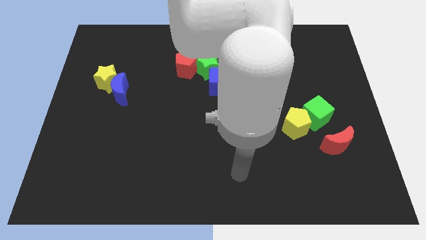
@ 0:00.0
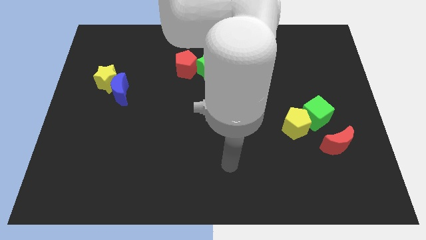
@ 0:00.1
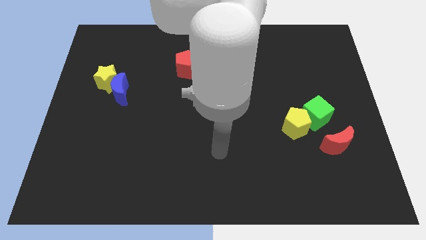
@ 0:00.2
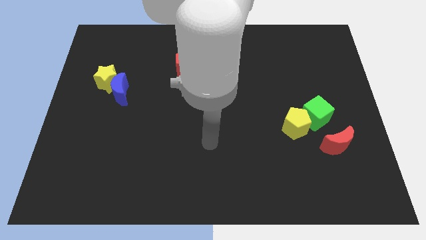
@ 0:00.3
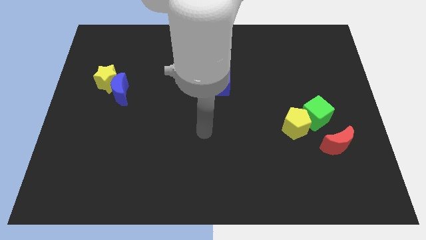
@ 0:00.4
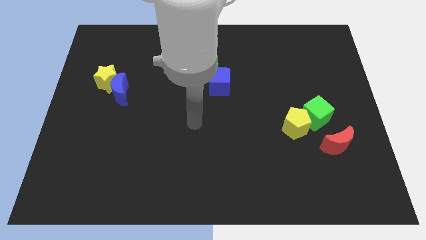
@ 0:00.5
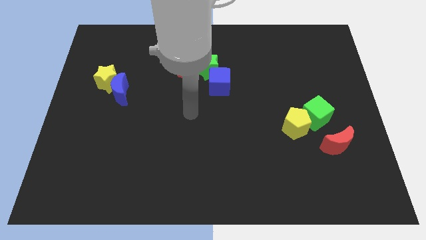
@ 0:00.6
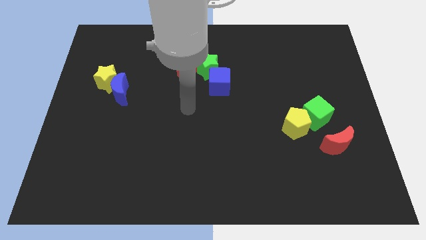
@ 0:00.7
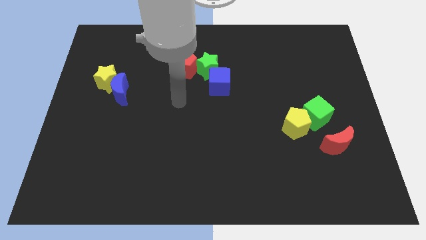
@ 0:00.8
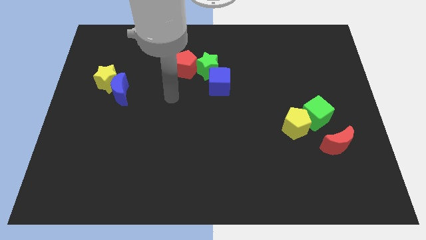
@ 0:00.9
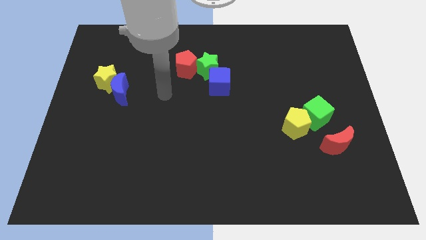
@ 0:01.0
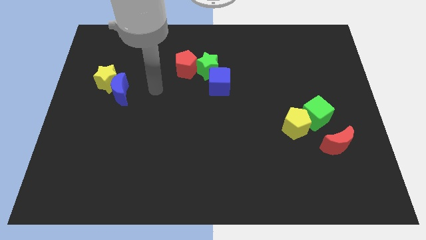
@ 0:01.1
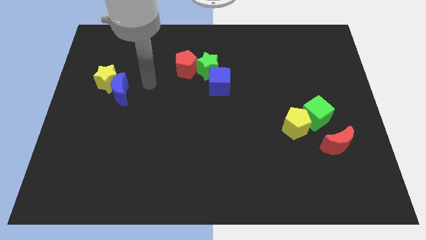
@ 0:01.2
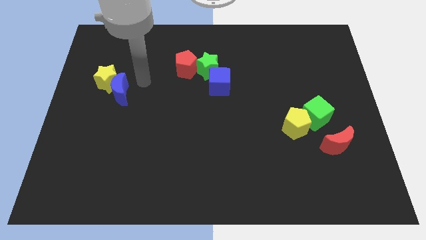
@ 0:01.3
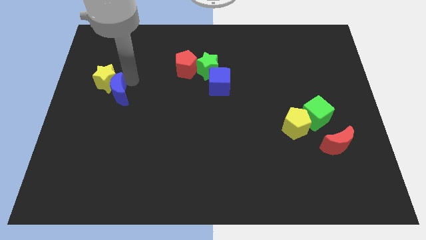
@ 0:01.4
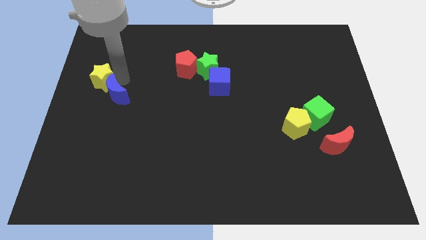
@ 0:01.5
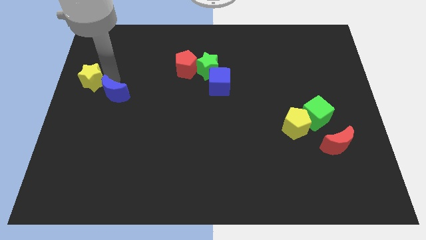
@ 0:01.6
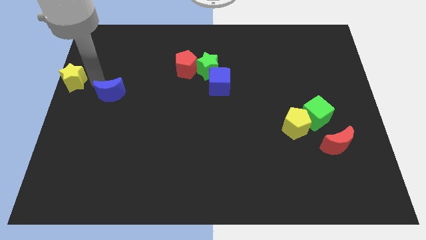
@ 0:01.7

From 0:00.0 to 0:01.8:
separate the blue moon from the yellow star

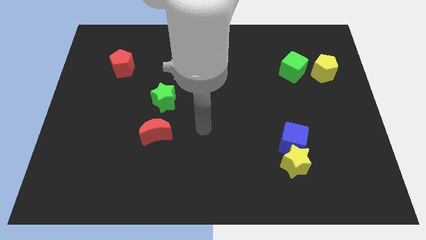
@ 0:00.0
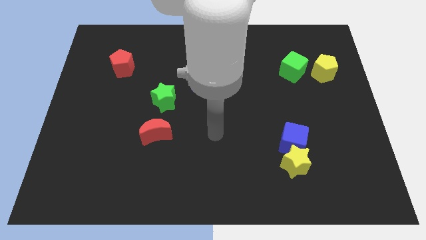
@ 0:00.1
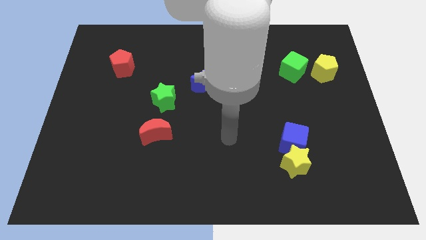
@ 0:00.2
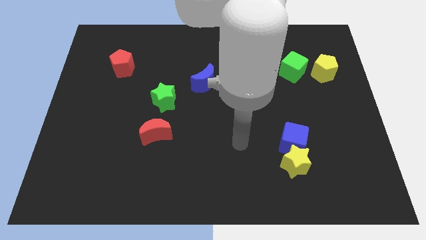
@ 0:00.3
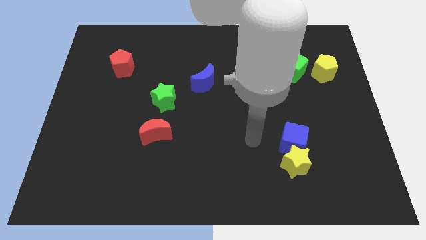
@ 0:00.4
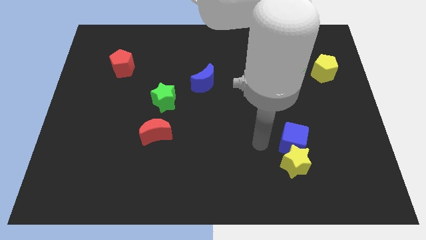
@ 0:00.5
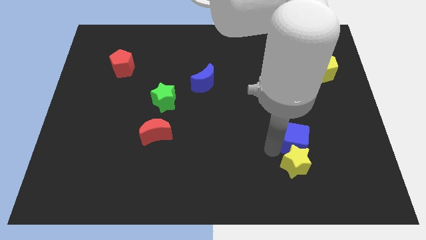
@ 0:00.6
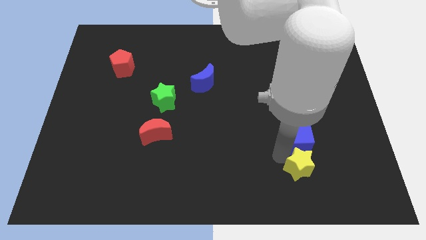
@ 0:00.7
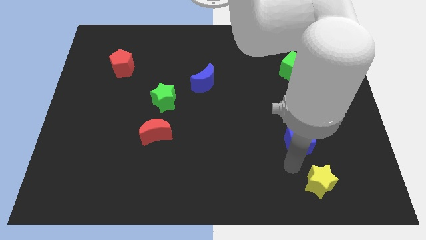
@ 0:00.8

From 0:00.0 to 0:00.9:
move the blue cube away from the yellow star

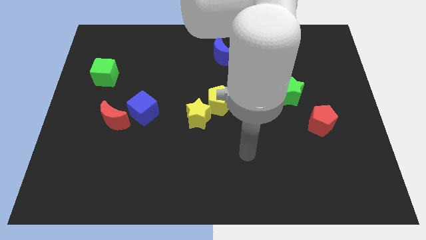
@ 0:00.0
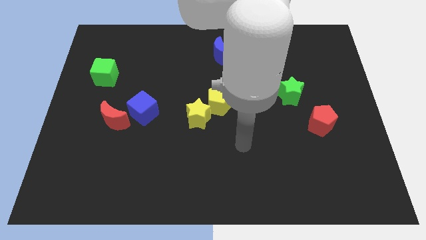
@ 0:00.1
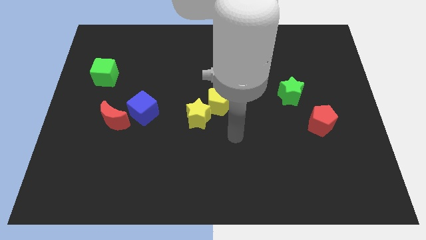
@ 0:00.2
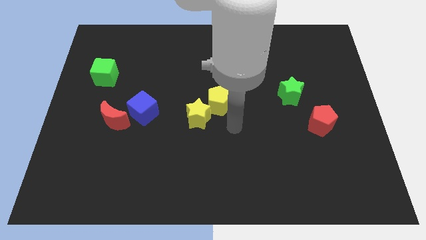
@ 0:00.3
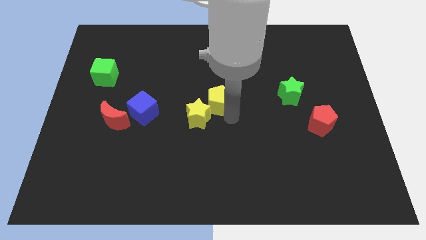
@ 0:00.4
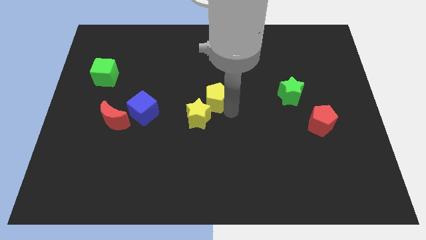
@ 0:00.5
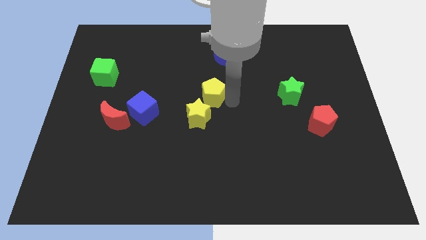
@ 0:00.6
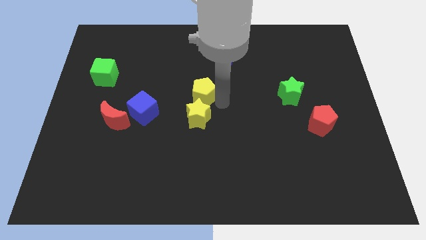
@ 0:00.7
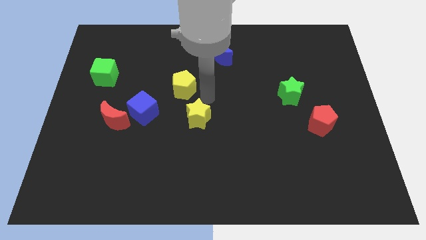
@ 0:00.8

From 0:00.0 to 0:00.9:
separate the yellow star from the yellow pentagon

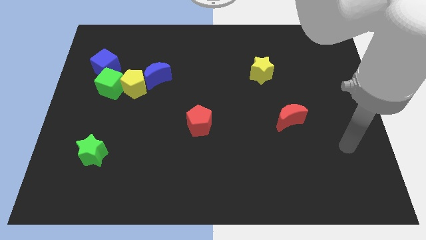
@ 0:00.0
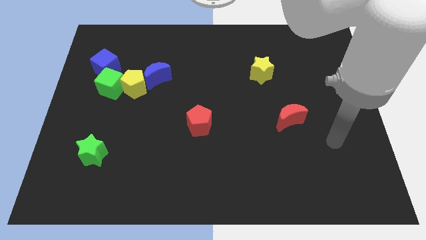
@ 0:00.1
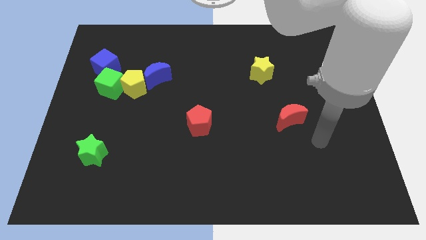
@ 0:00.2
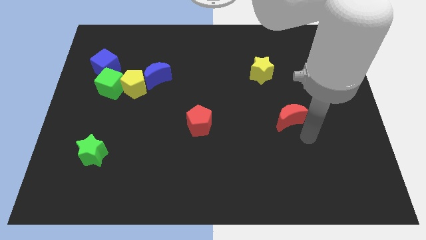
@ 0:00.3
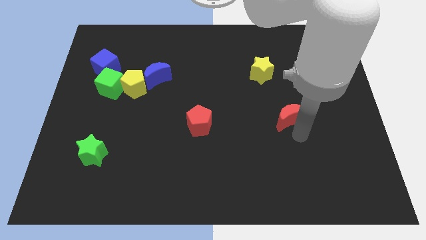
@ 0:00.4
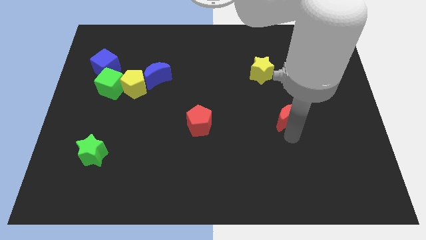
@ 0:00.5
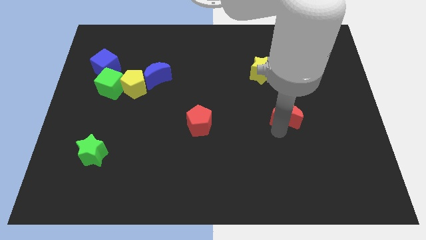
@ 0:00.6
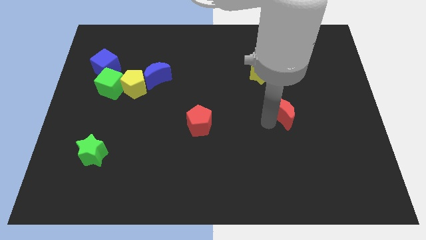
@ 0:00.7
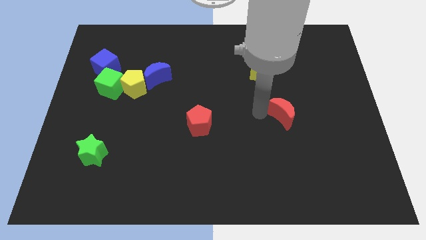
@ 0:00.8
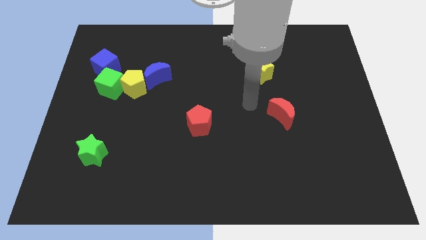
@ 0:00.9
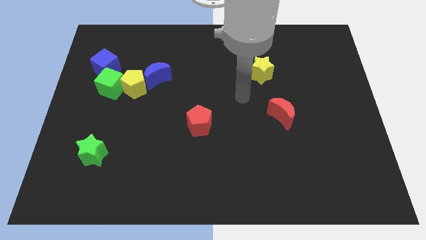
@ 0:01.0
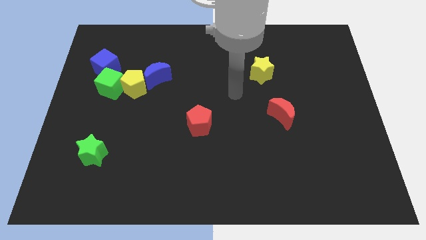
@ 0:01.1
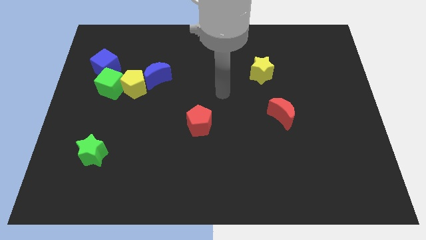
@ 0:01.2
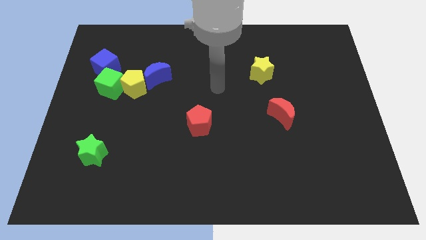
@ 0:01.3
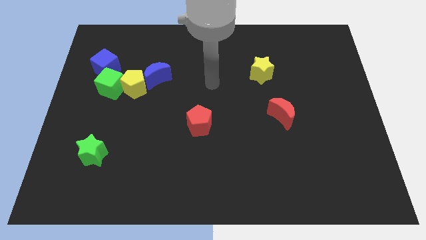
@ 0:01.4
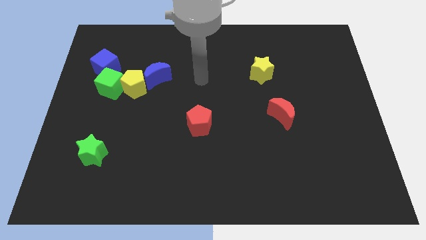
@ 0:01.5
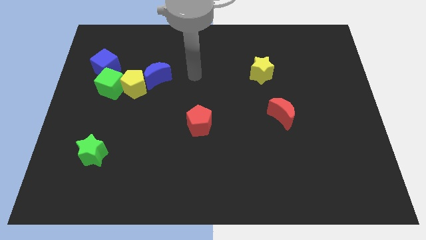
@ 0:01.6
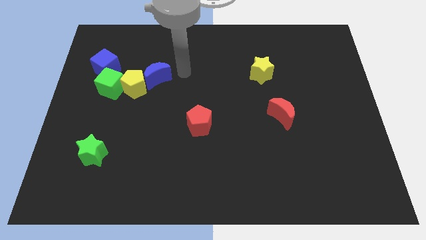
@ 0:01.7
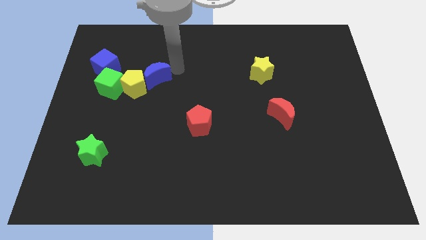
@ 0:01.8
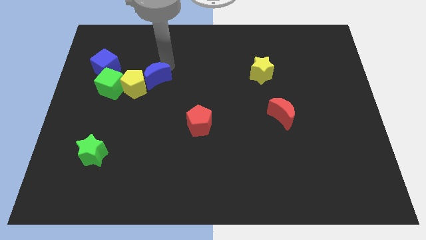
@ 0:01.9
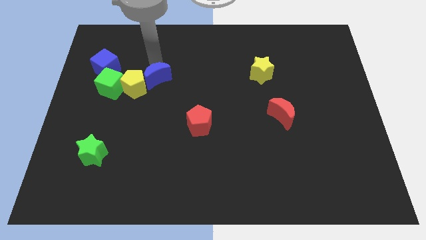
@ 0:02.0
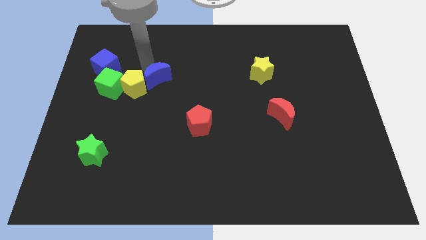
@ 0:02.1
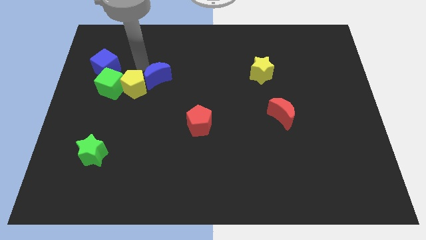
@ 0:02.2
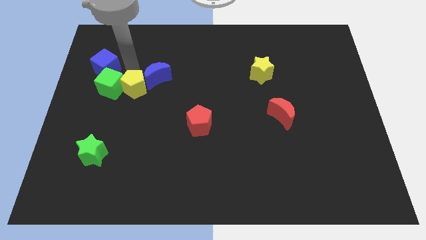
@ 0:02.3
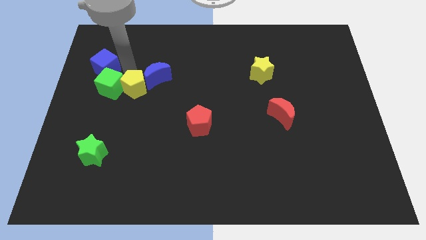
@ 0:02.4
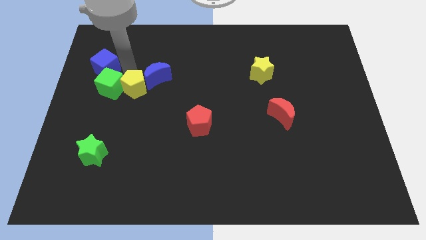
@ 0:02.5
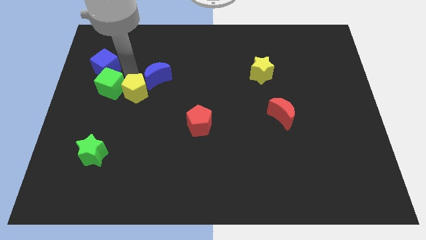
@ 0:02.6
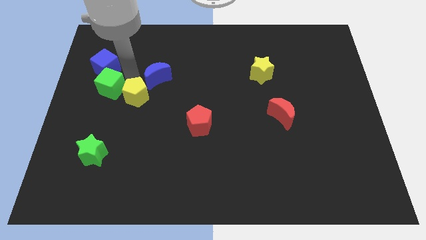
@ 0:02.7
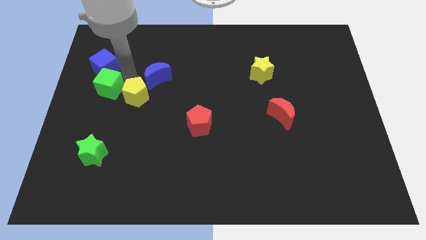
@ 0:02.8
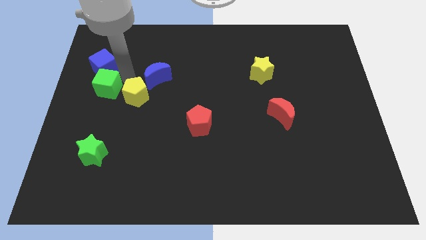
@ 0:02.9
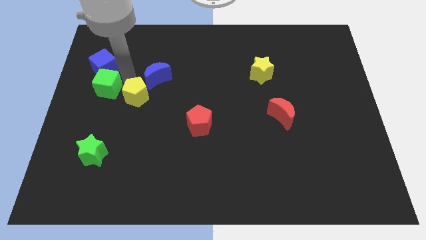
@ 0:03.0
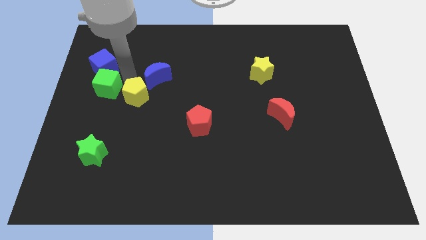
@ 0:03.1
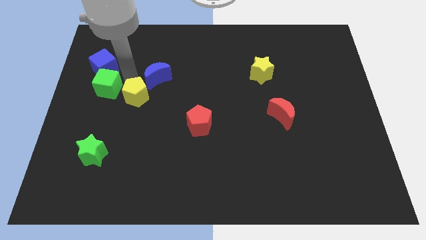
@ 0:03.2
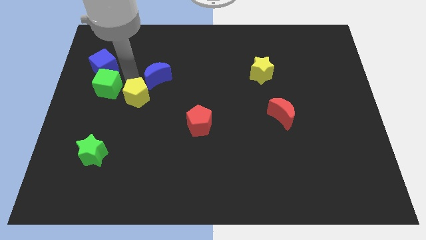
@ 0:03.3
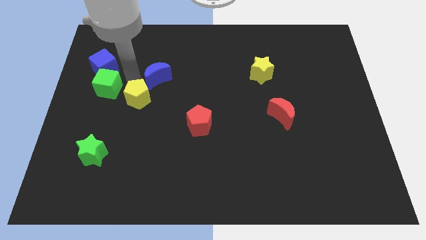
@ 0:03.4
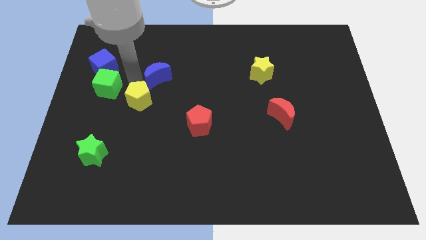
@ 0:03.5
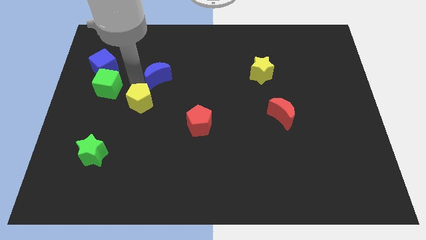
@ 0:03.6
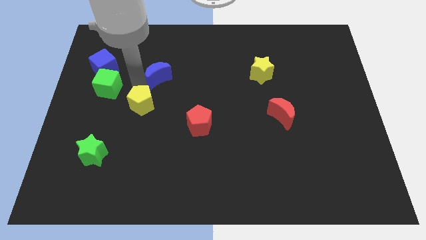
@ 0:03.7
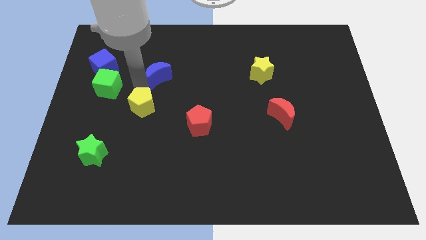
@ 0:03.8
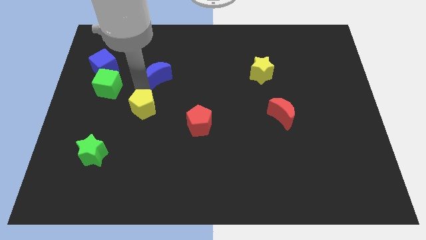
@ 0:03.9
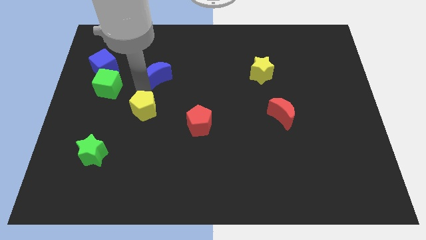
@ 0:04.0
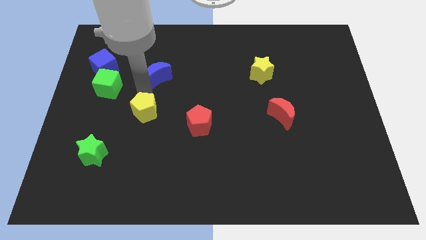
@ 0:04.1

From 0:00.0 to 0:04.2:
move the yellow pentagon away from the green cube and blue moon

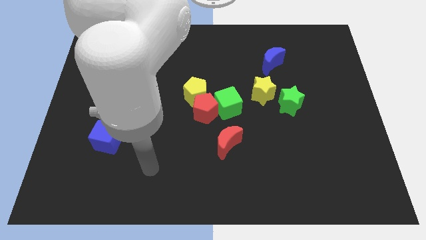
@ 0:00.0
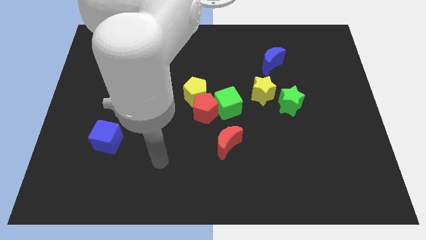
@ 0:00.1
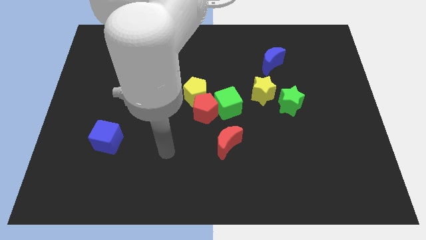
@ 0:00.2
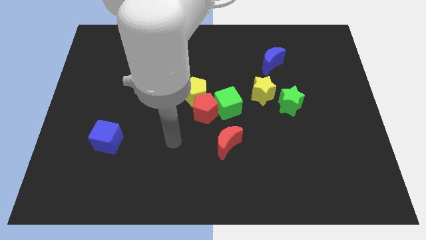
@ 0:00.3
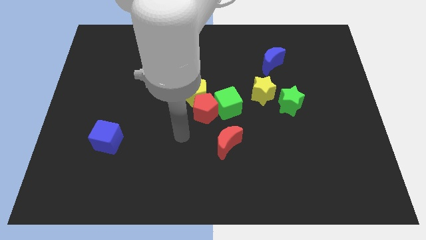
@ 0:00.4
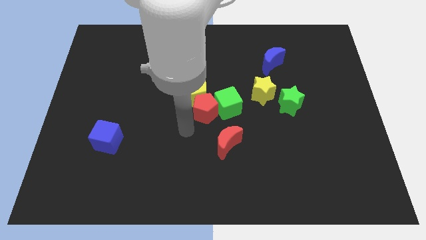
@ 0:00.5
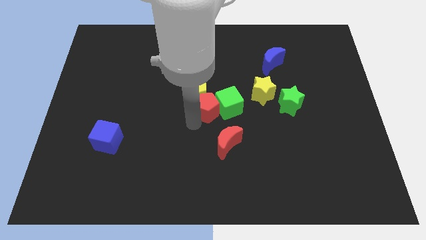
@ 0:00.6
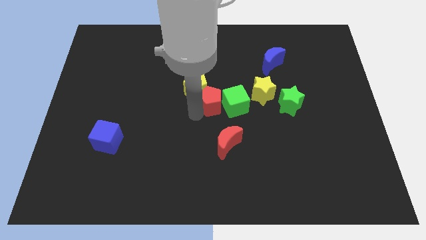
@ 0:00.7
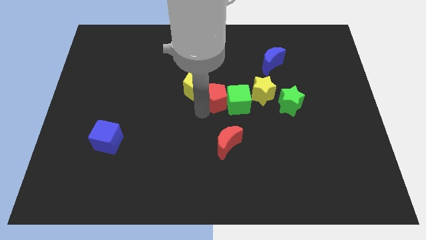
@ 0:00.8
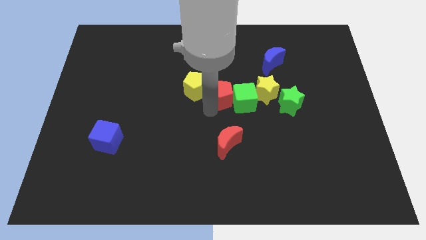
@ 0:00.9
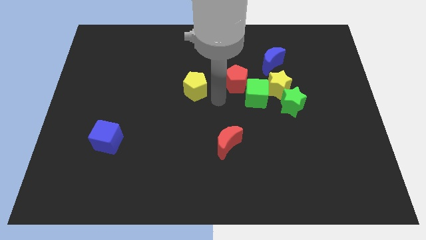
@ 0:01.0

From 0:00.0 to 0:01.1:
pull the yellow pentagon apart from the red pentagon and green cube

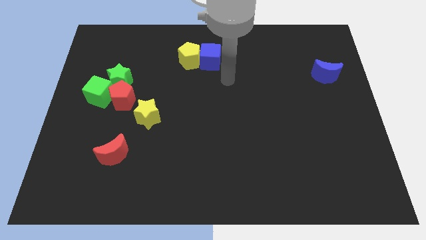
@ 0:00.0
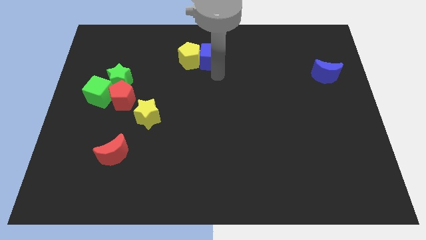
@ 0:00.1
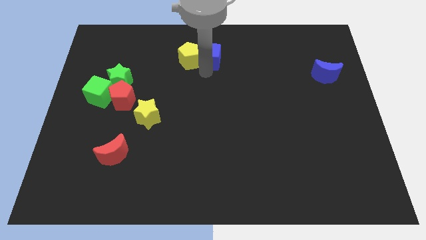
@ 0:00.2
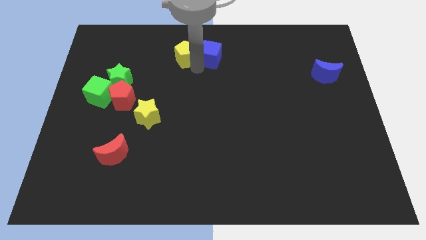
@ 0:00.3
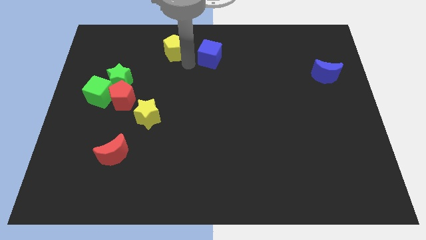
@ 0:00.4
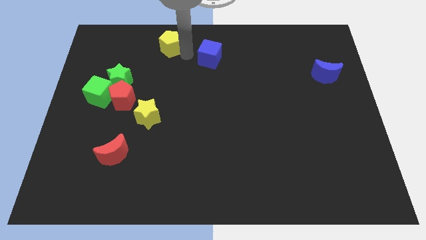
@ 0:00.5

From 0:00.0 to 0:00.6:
pull the blue cube apart from the yellow pentagon
